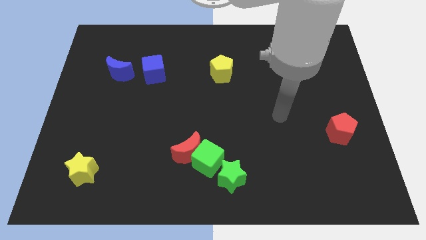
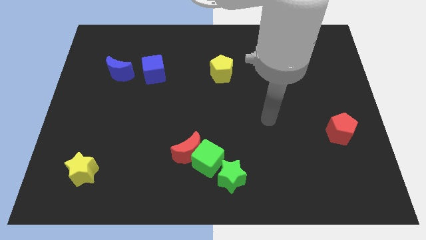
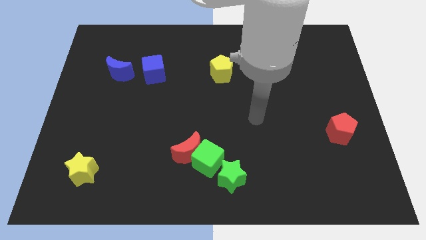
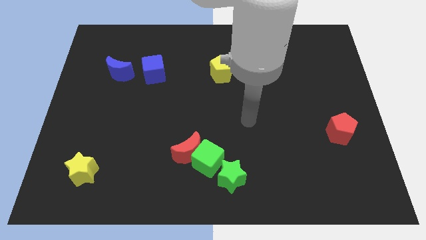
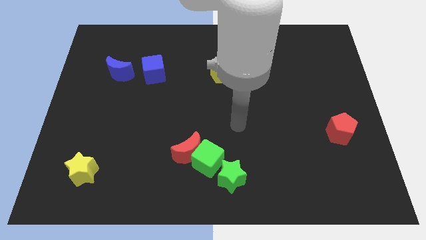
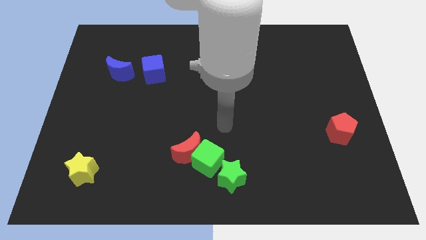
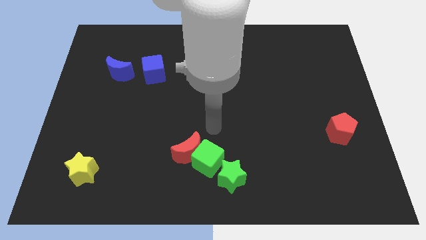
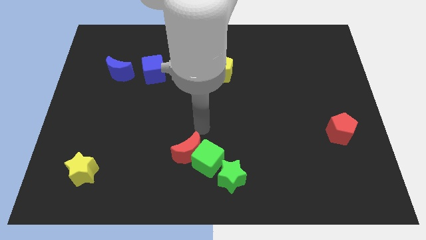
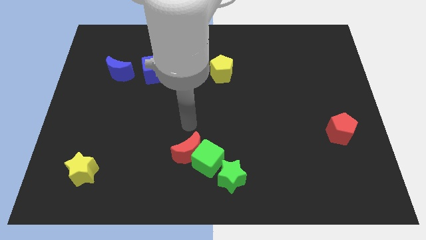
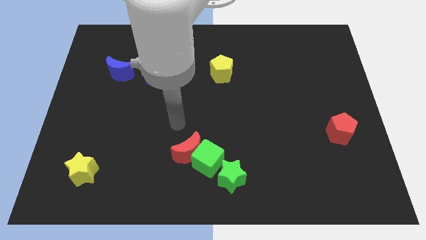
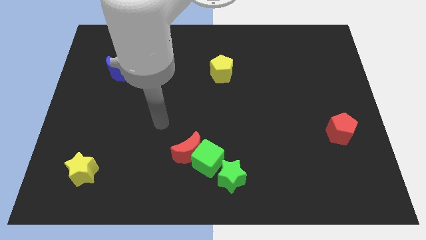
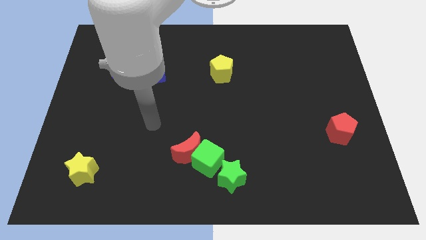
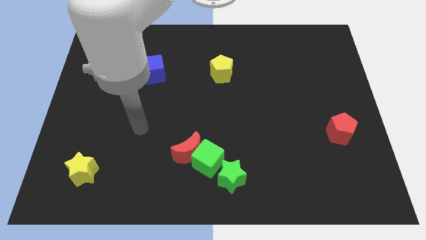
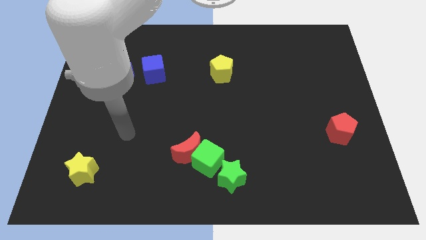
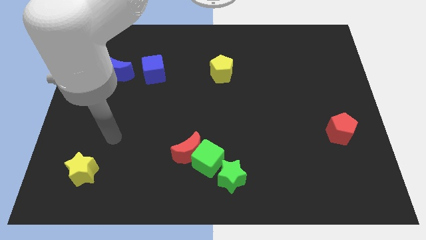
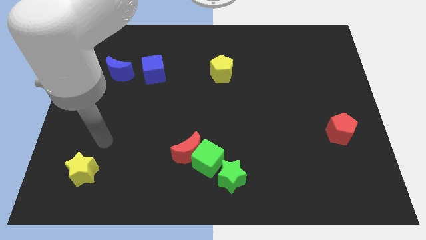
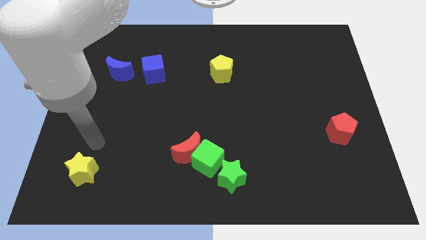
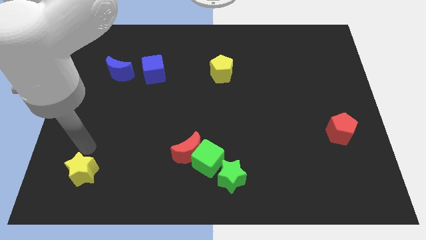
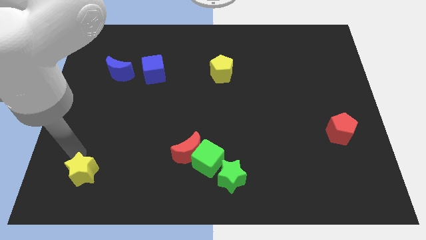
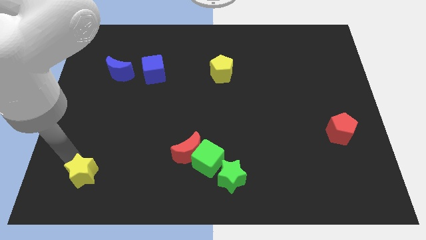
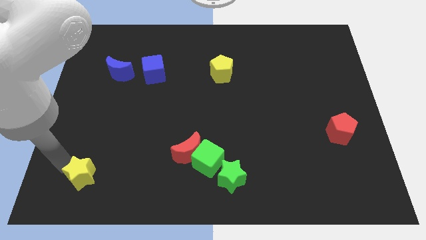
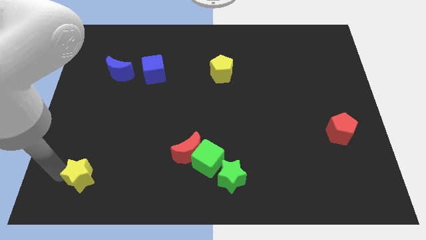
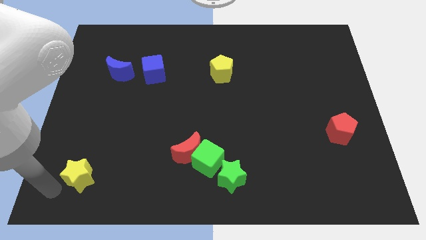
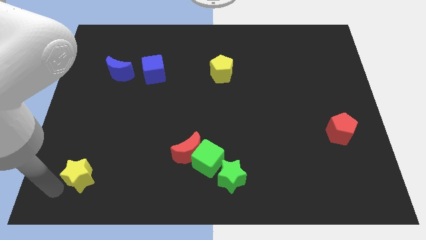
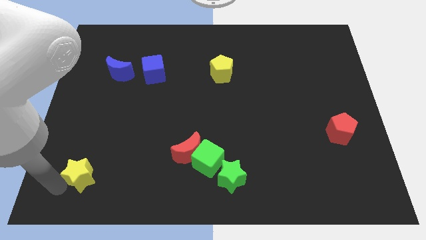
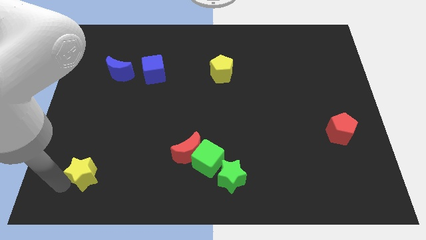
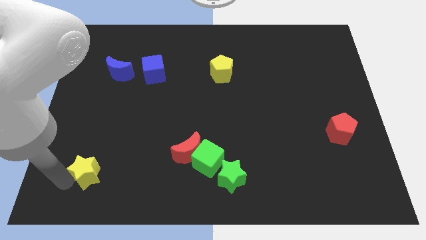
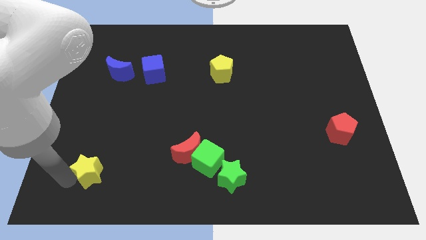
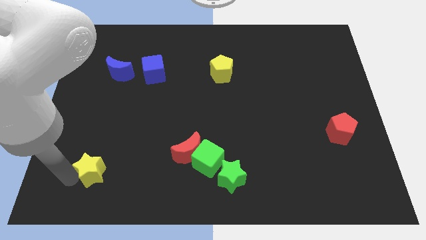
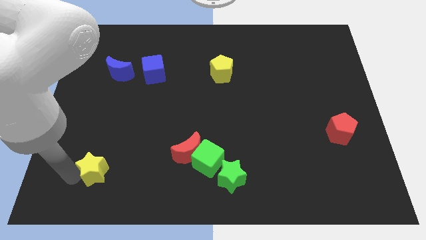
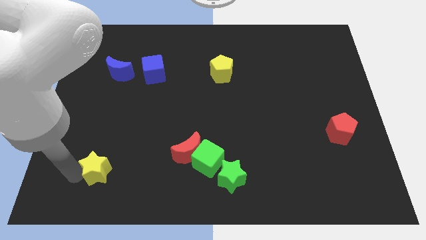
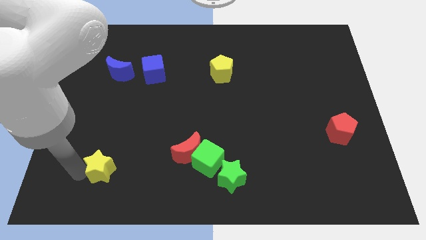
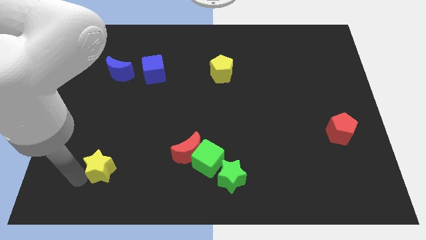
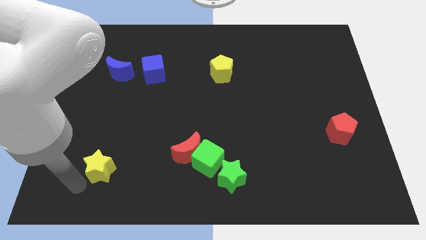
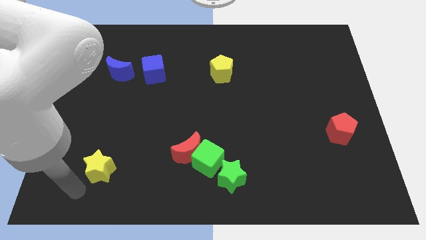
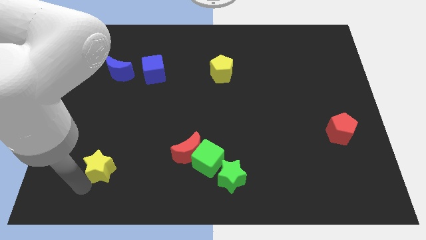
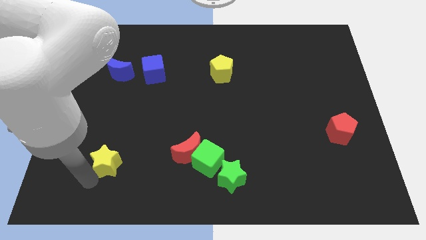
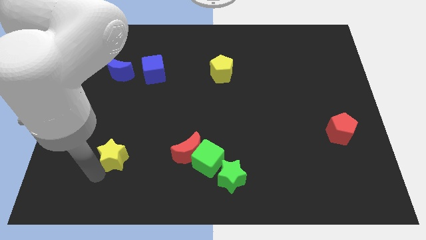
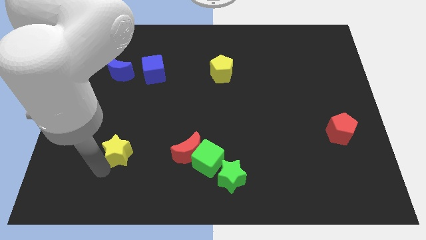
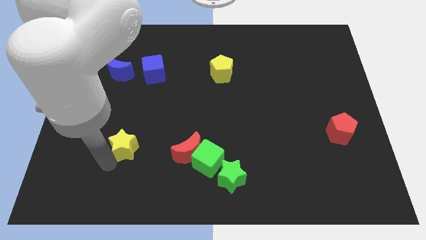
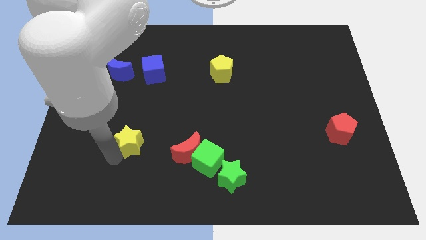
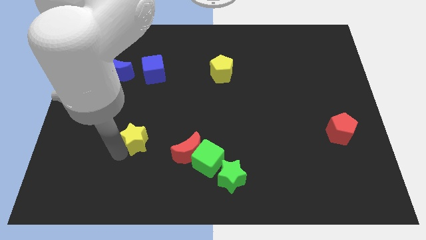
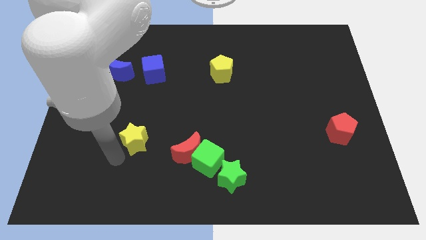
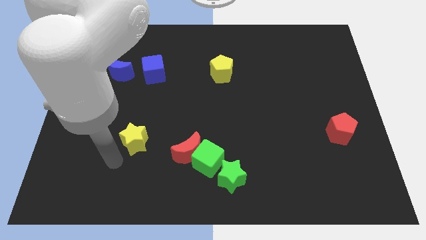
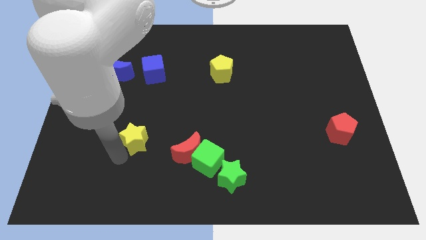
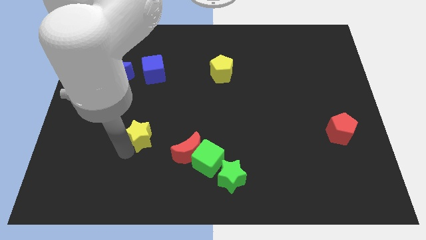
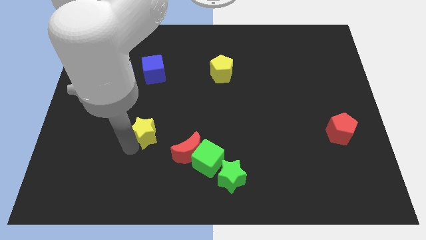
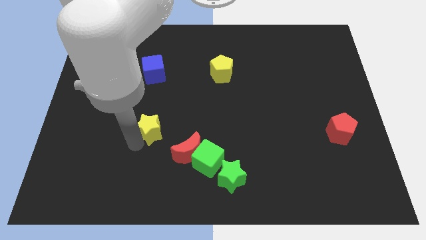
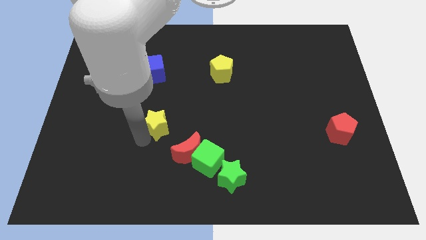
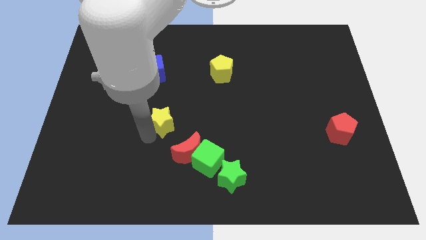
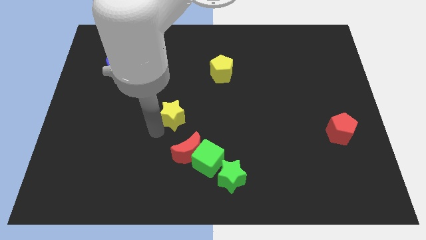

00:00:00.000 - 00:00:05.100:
move the yellow star upwards and to the right

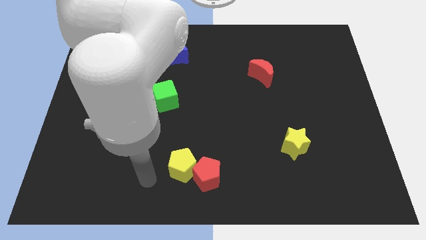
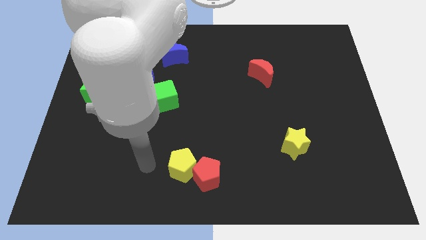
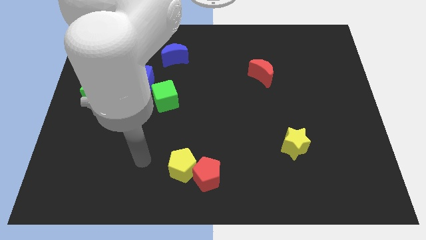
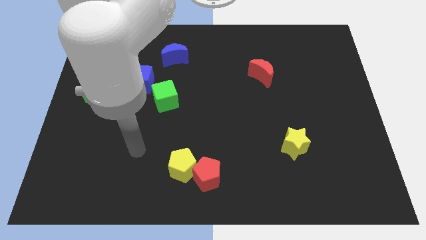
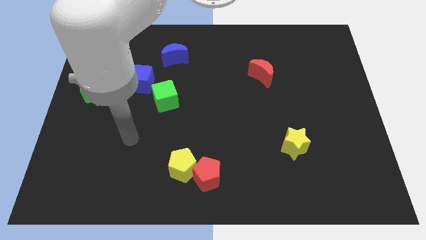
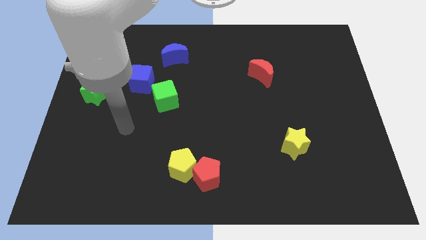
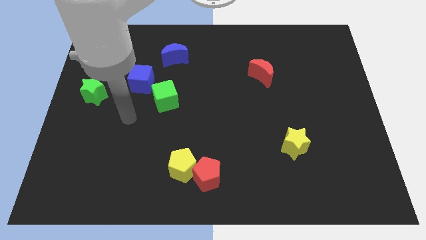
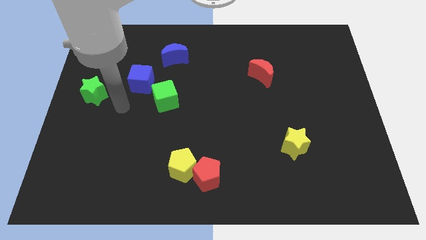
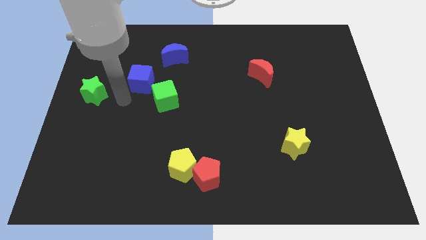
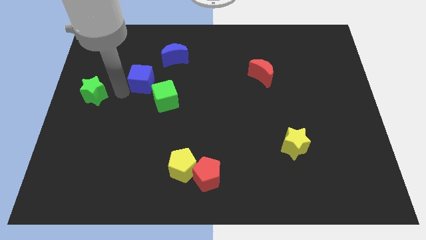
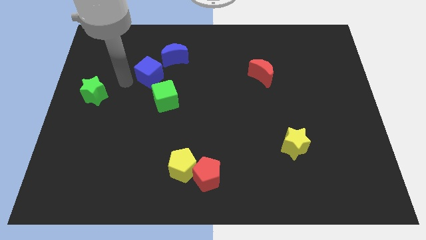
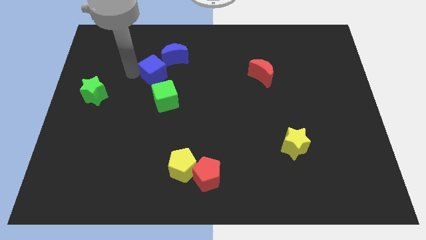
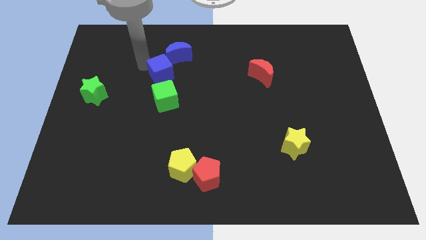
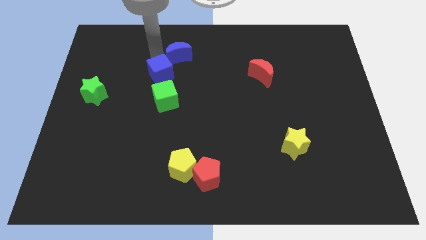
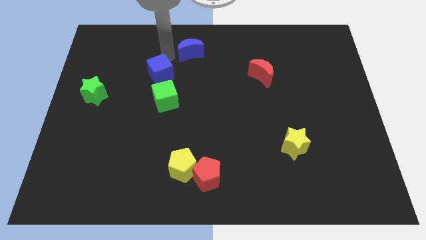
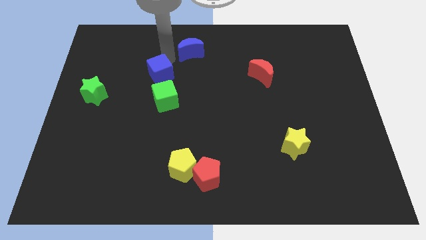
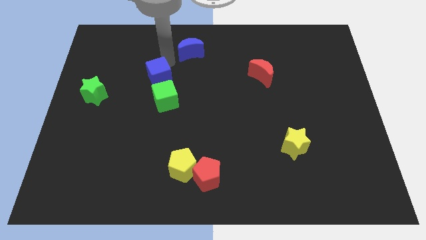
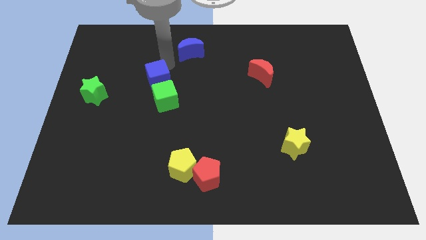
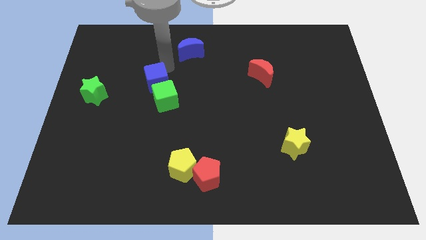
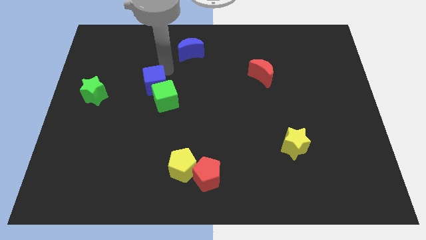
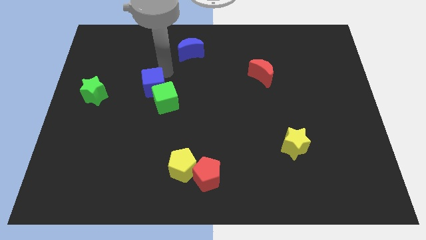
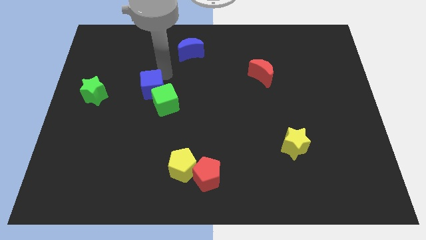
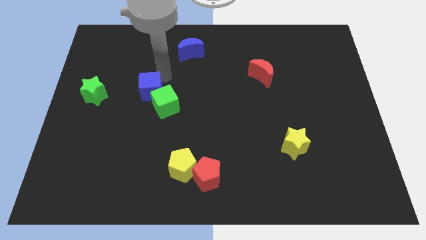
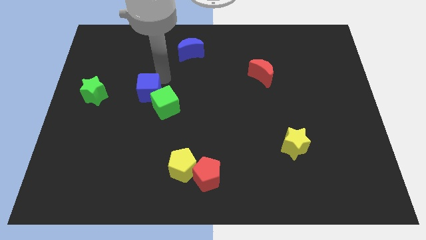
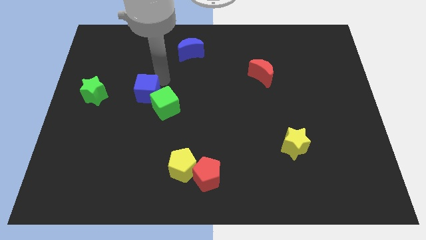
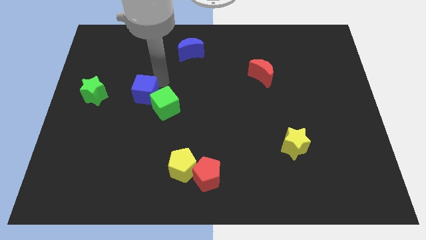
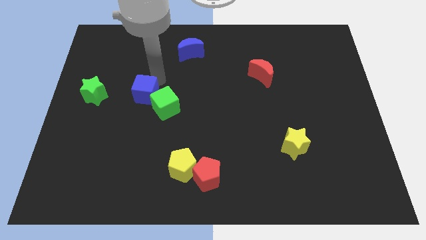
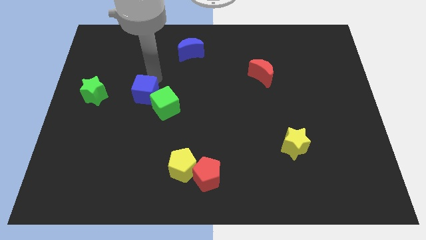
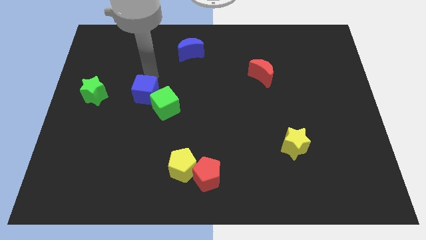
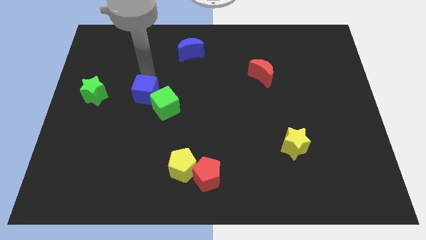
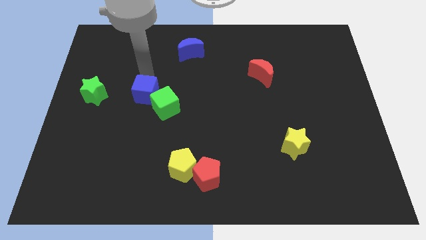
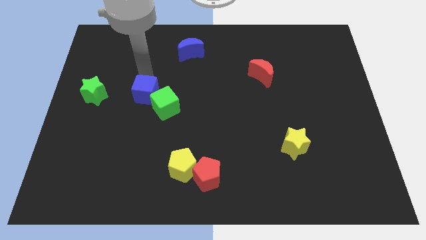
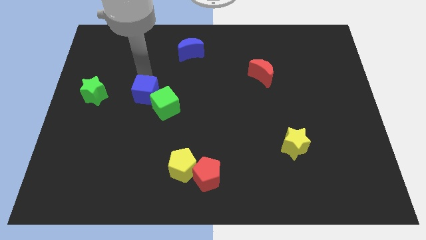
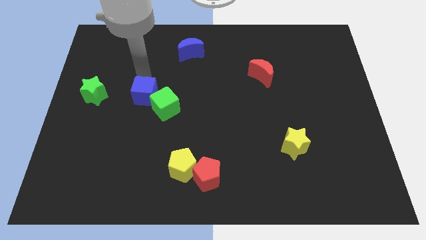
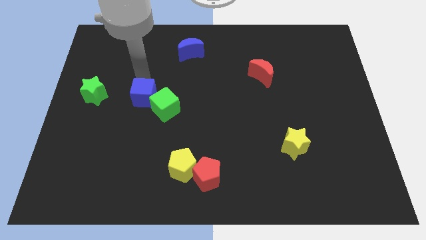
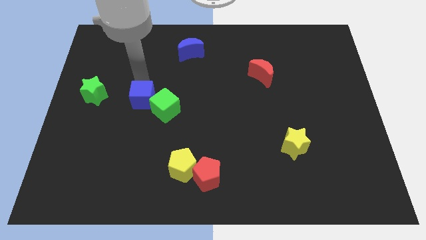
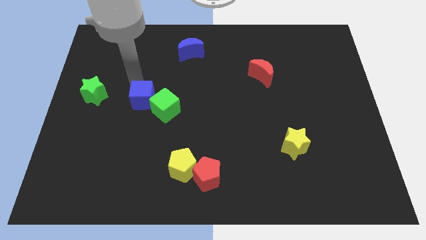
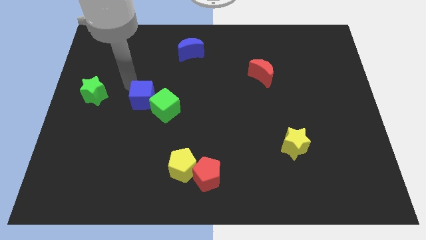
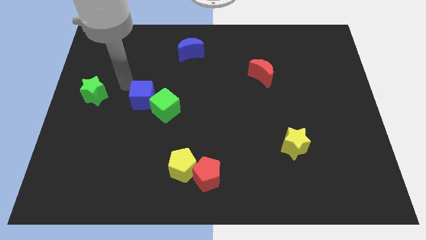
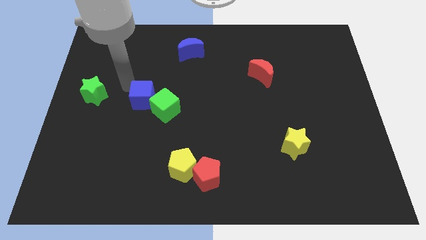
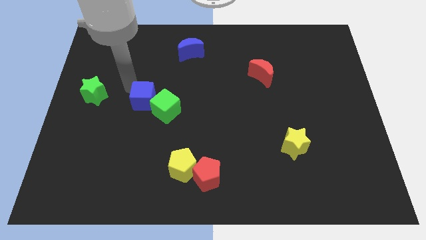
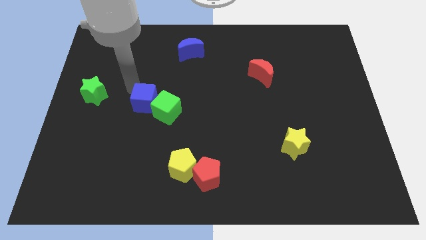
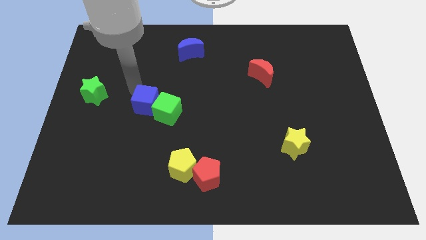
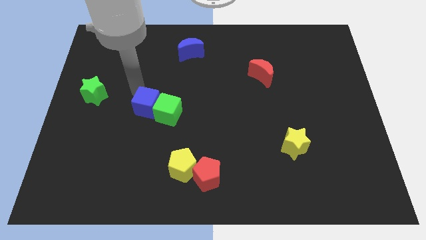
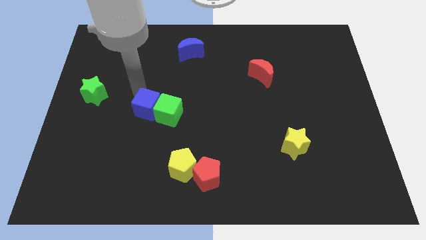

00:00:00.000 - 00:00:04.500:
slide the blue cube somewhat down and right
